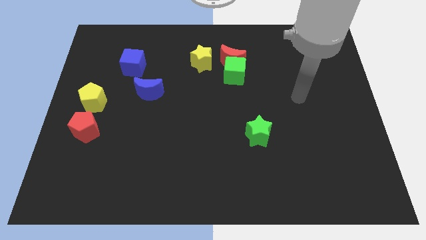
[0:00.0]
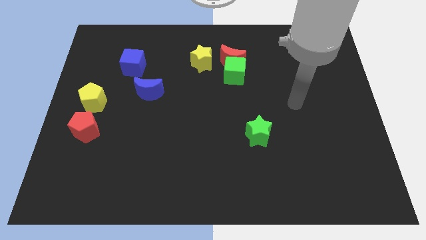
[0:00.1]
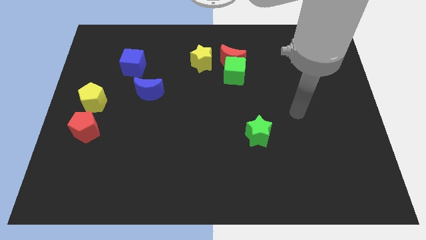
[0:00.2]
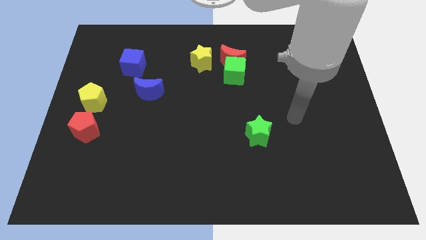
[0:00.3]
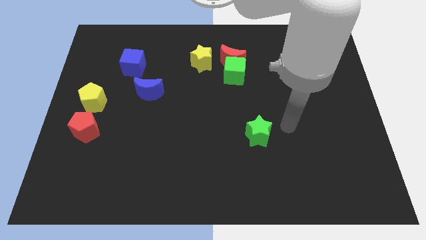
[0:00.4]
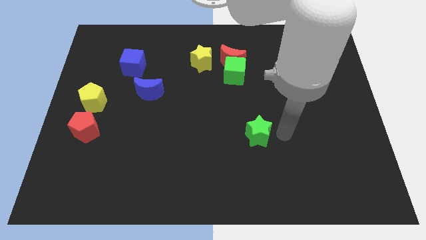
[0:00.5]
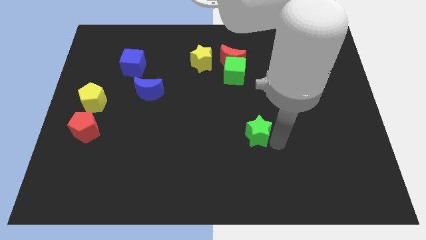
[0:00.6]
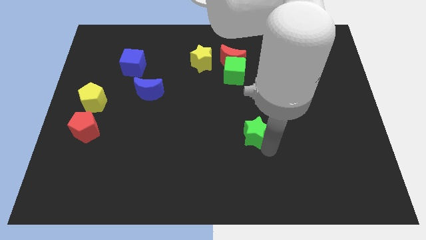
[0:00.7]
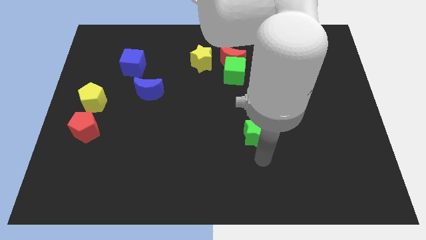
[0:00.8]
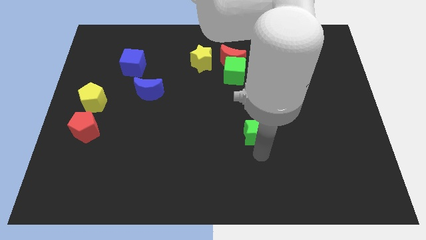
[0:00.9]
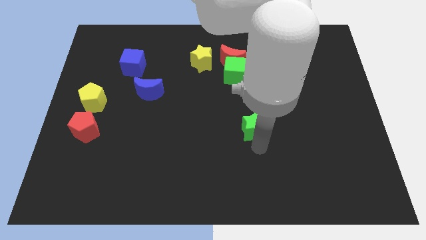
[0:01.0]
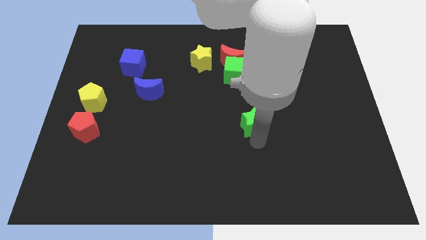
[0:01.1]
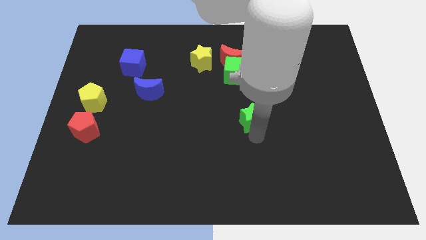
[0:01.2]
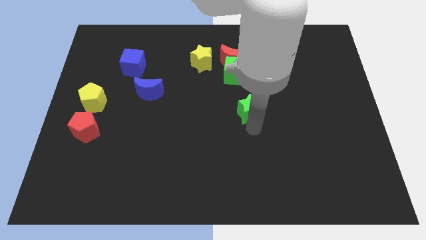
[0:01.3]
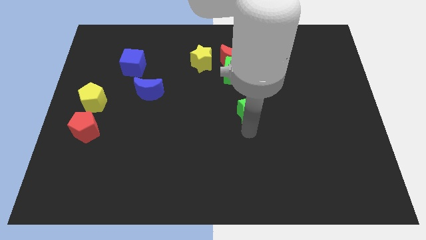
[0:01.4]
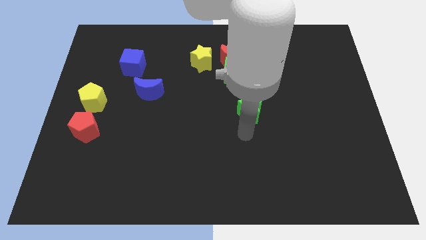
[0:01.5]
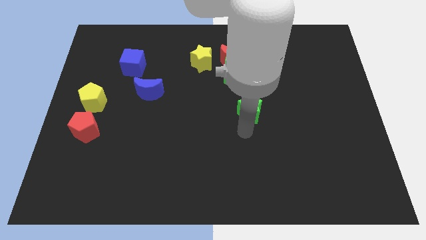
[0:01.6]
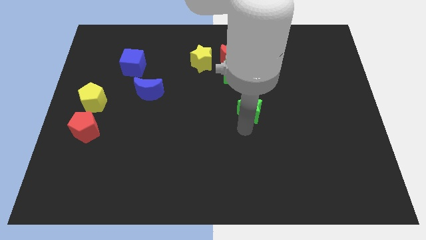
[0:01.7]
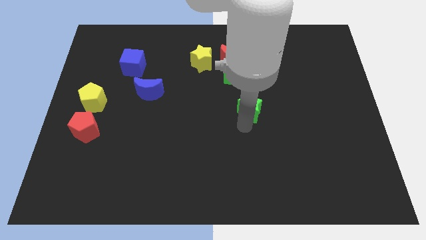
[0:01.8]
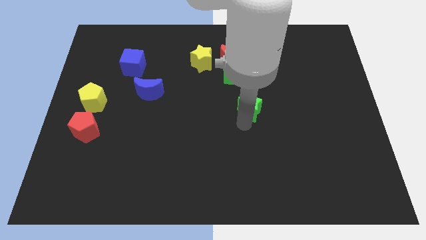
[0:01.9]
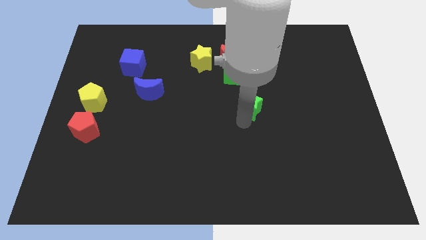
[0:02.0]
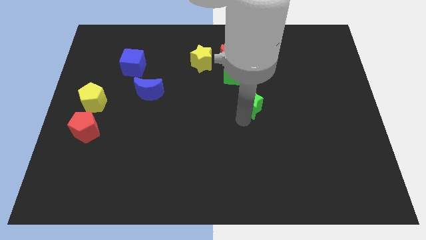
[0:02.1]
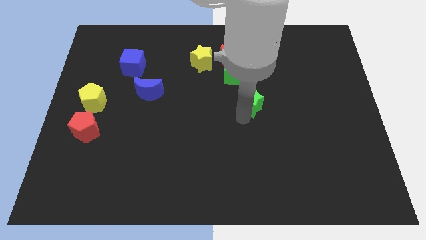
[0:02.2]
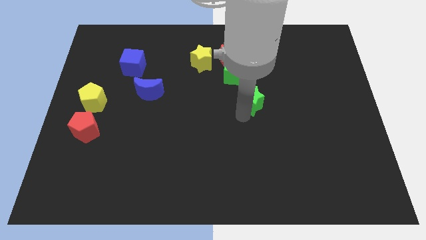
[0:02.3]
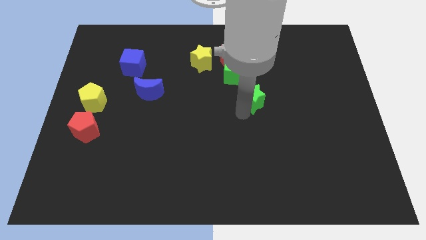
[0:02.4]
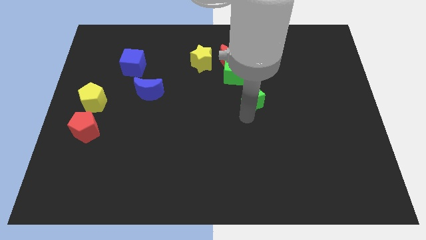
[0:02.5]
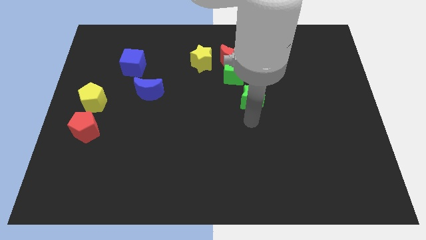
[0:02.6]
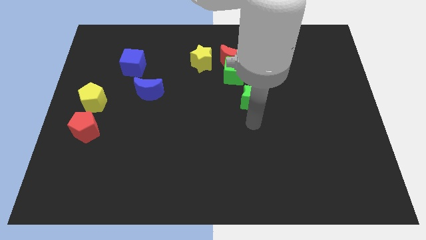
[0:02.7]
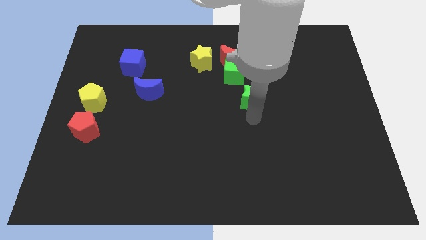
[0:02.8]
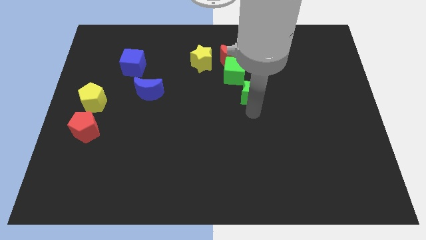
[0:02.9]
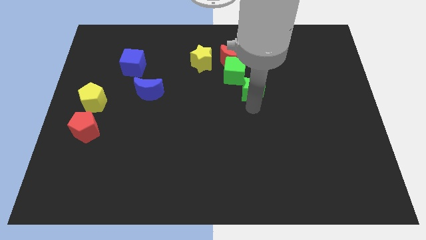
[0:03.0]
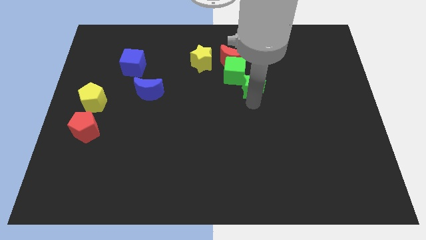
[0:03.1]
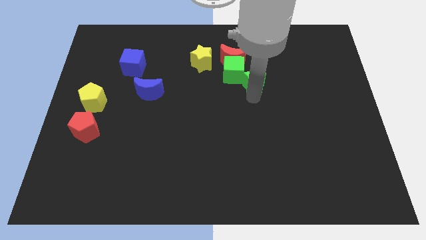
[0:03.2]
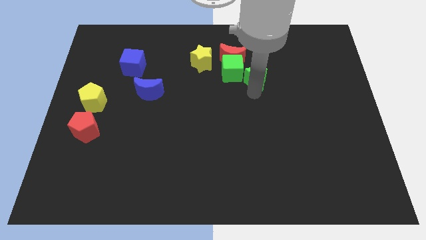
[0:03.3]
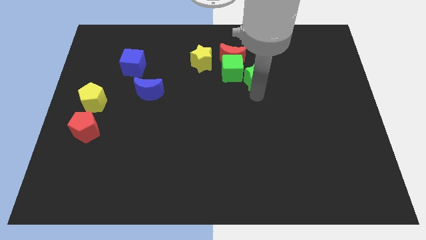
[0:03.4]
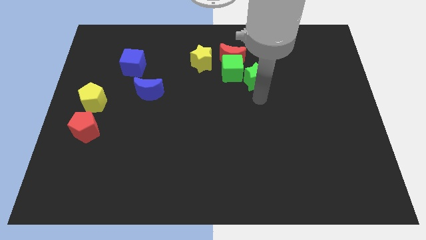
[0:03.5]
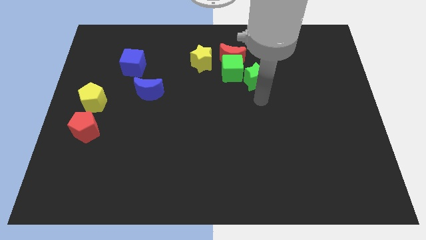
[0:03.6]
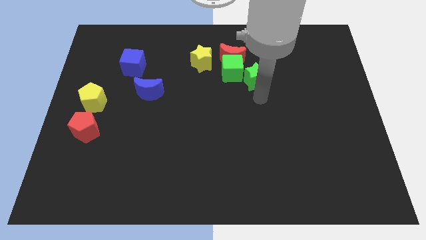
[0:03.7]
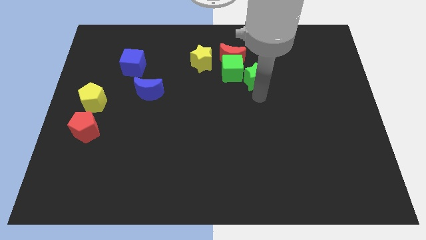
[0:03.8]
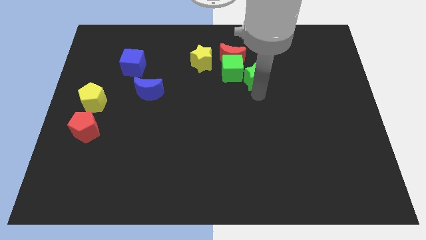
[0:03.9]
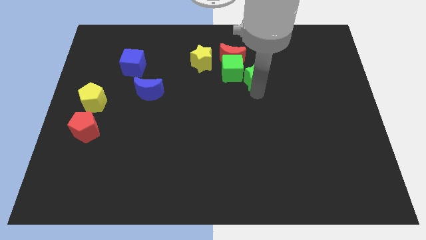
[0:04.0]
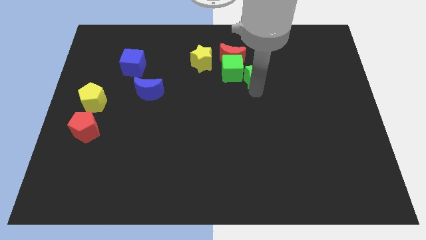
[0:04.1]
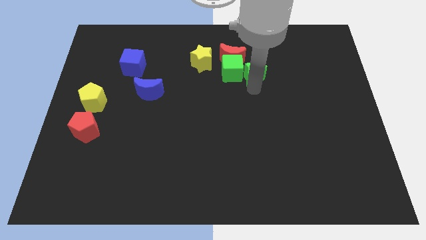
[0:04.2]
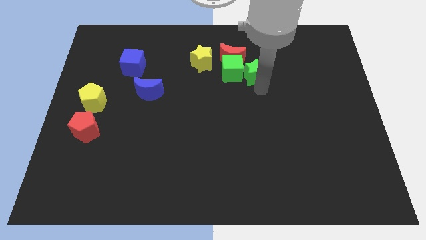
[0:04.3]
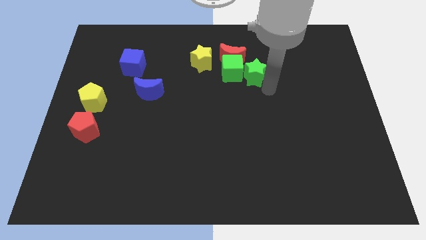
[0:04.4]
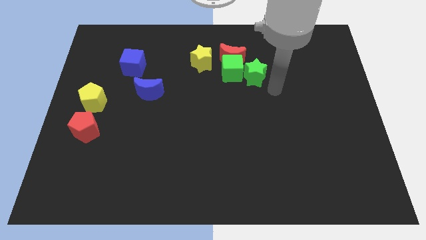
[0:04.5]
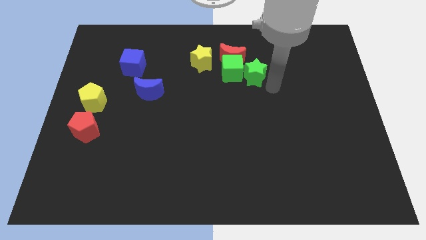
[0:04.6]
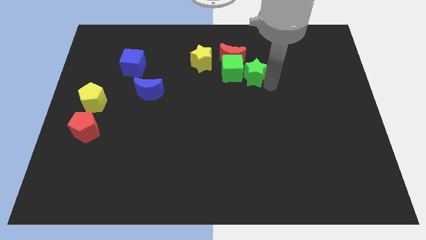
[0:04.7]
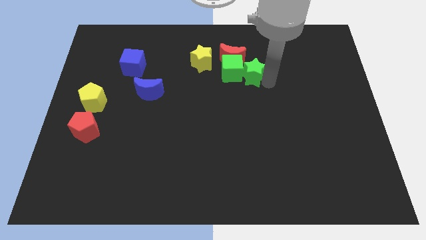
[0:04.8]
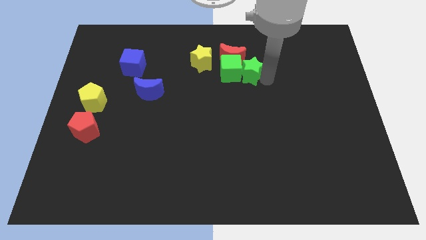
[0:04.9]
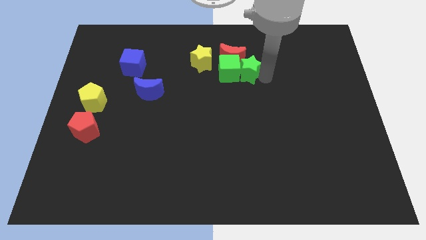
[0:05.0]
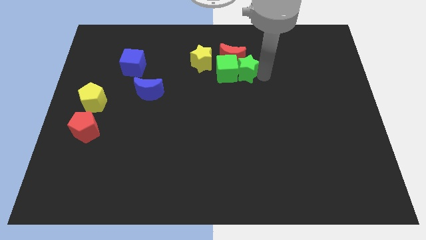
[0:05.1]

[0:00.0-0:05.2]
slide the green star next to the red moon

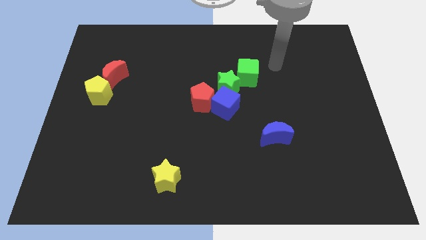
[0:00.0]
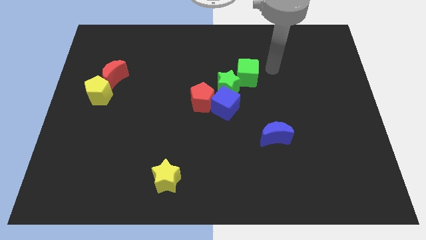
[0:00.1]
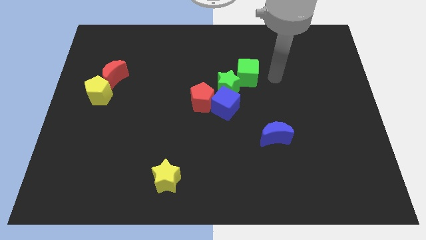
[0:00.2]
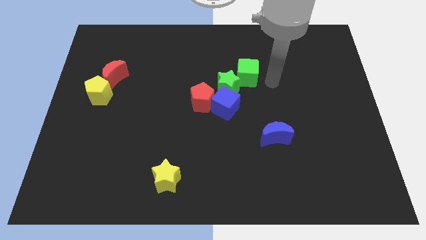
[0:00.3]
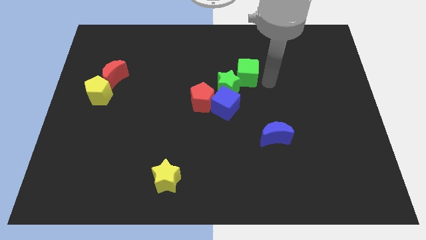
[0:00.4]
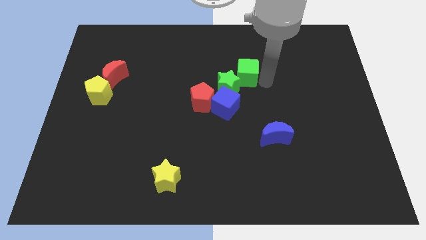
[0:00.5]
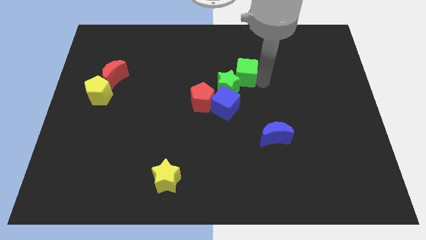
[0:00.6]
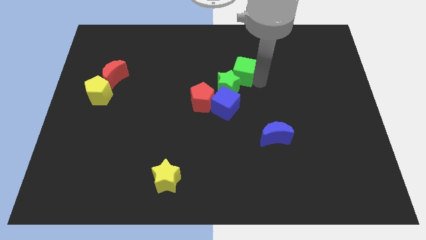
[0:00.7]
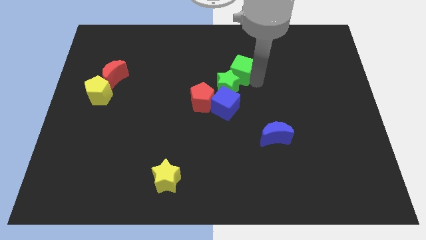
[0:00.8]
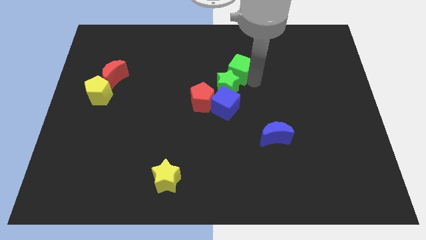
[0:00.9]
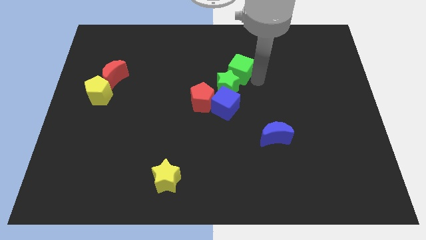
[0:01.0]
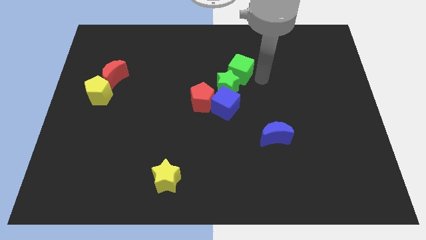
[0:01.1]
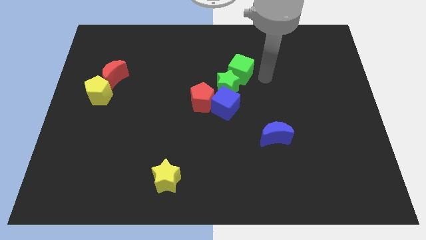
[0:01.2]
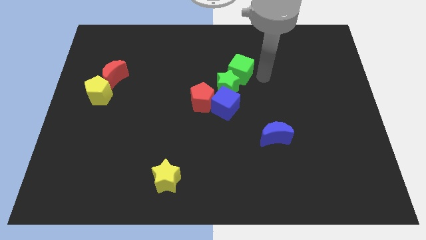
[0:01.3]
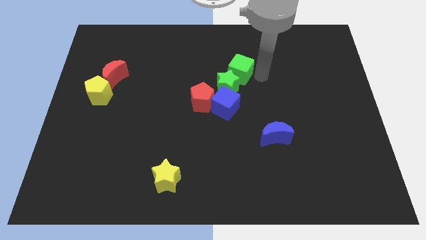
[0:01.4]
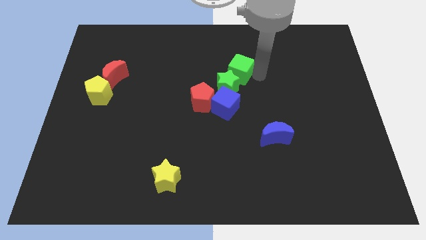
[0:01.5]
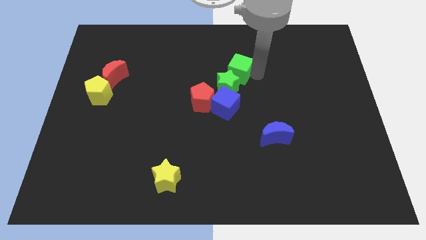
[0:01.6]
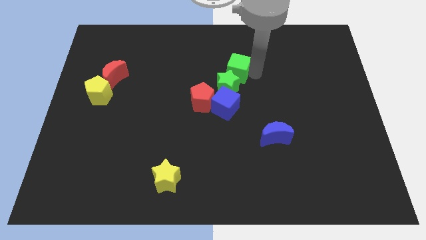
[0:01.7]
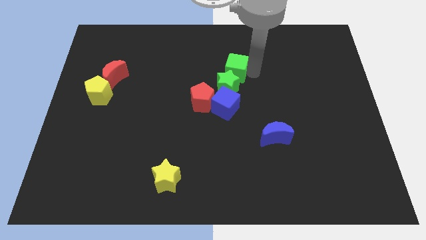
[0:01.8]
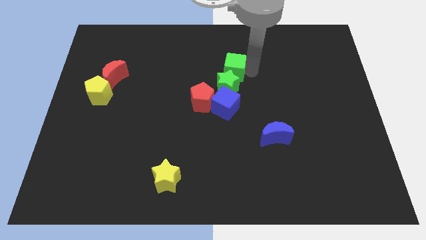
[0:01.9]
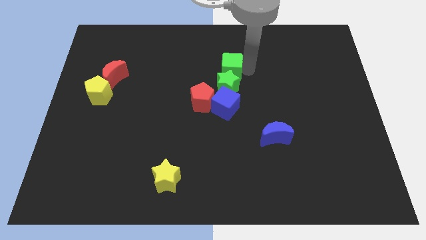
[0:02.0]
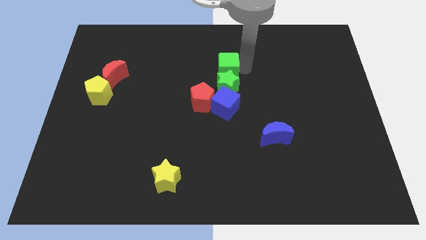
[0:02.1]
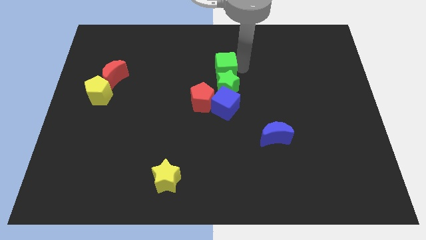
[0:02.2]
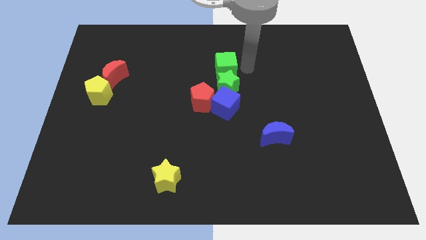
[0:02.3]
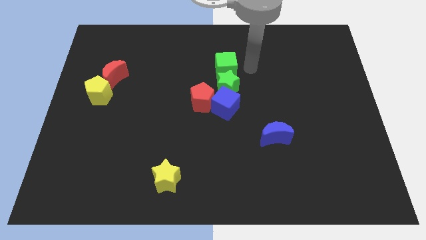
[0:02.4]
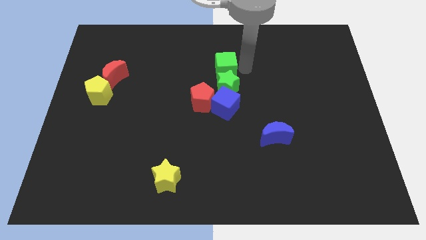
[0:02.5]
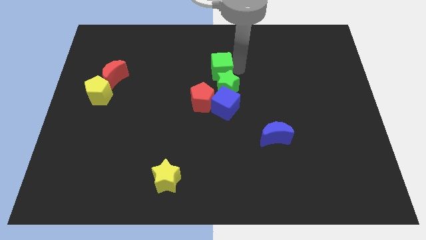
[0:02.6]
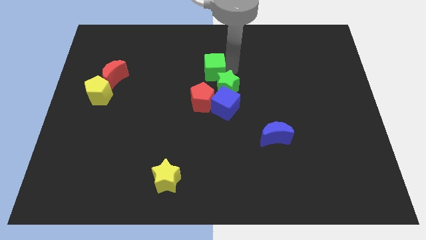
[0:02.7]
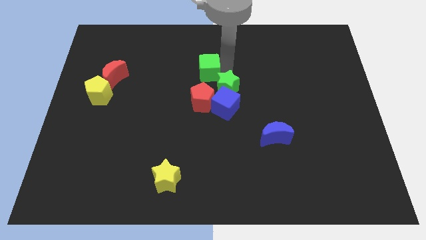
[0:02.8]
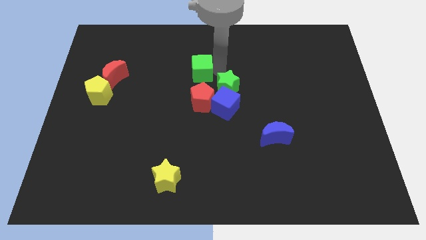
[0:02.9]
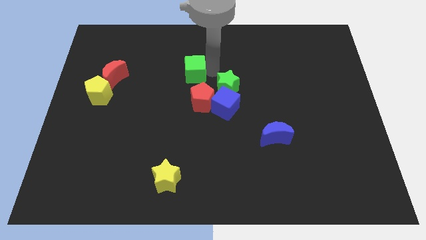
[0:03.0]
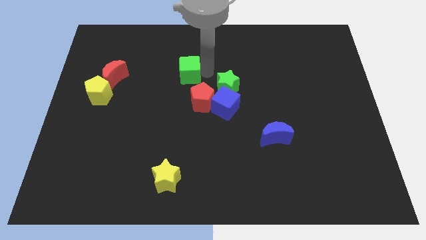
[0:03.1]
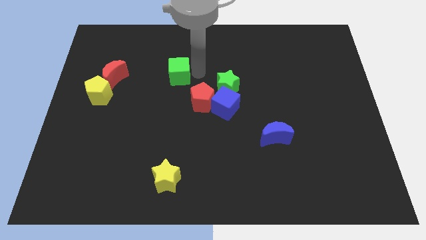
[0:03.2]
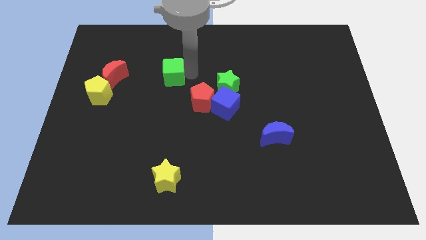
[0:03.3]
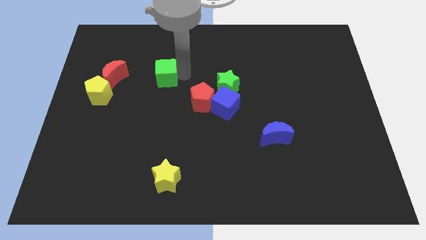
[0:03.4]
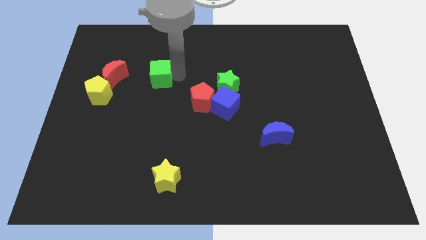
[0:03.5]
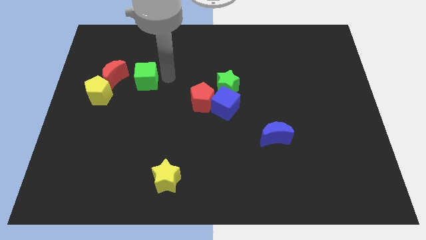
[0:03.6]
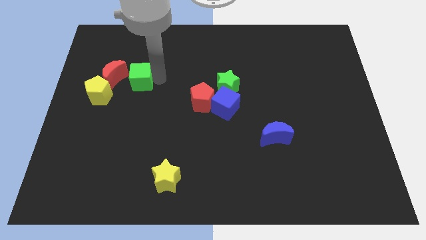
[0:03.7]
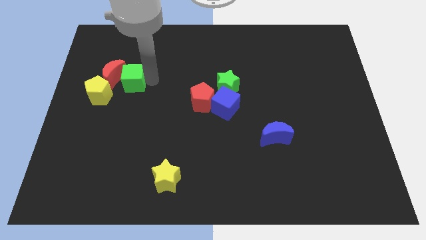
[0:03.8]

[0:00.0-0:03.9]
slide the green cube towards the red moon
